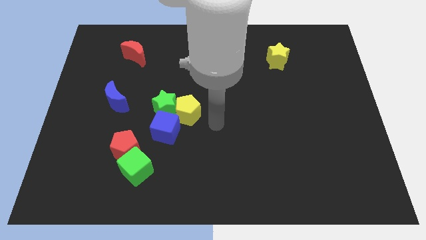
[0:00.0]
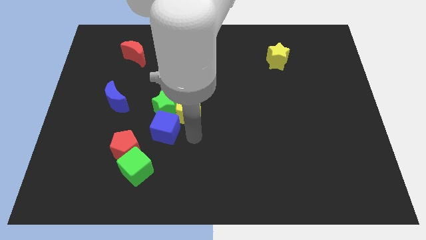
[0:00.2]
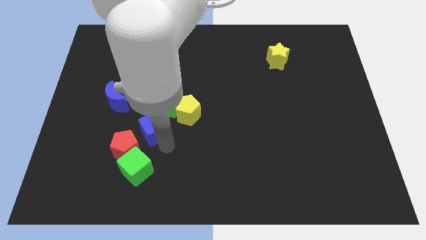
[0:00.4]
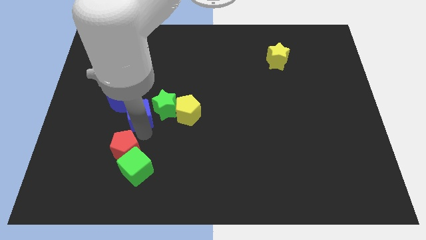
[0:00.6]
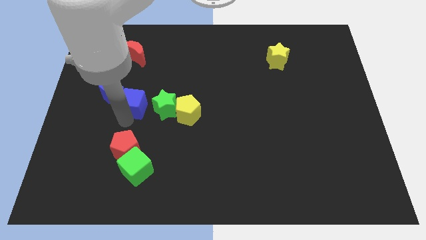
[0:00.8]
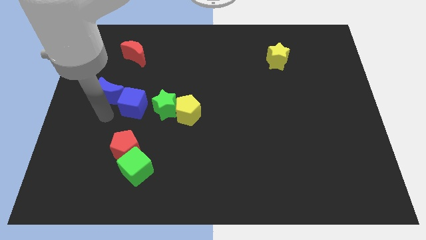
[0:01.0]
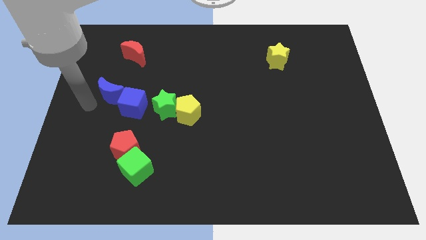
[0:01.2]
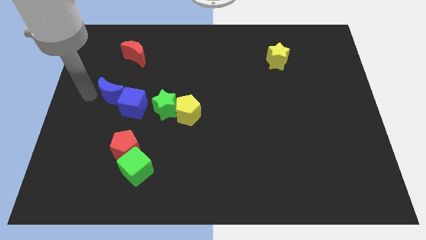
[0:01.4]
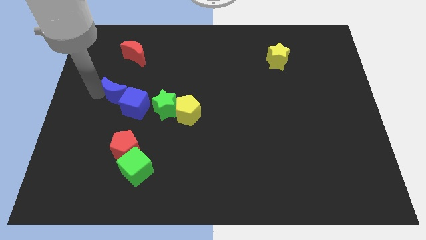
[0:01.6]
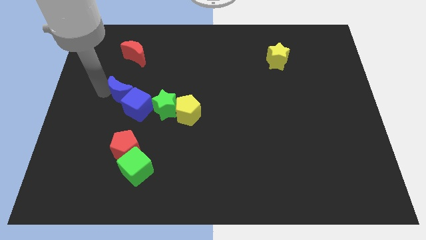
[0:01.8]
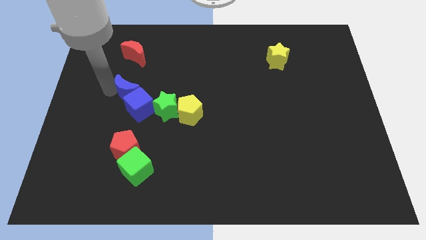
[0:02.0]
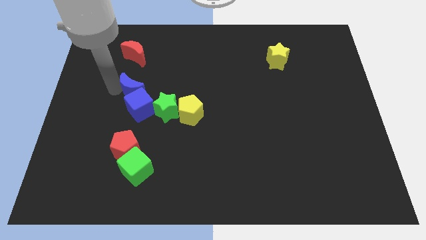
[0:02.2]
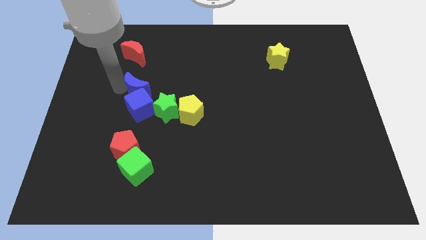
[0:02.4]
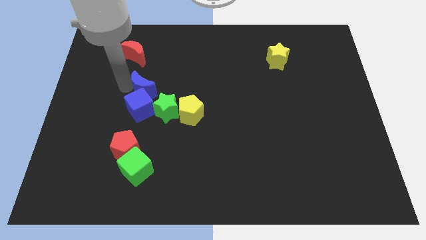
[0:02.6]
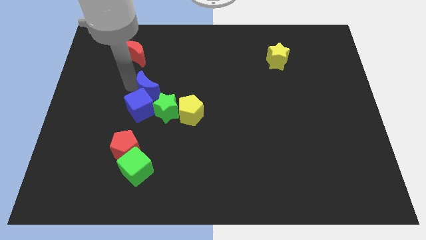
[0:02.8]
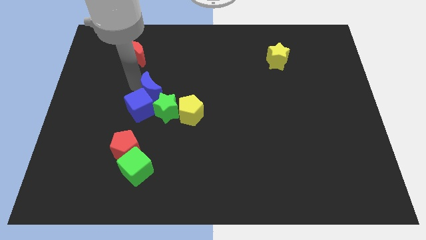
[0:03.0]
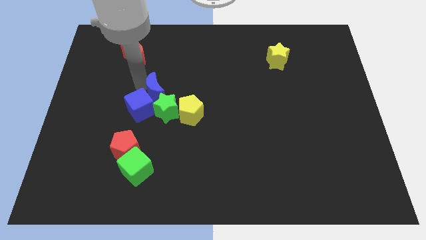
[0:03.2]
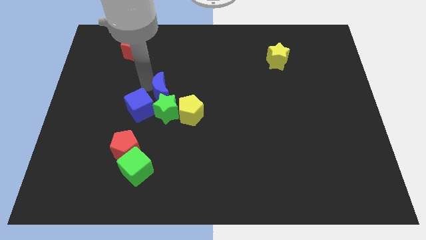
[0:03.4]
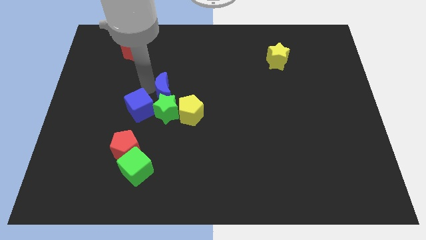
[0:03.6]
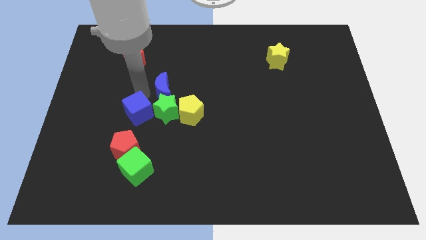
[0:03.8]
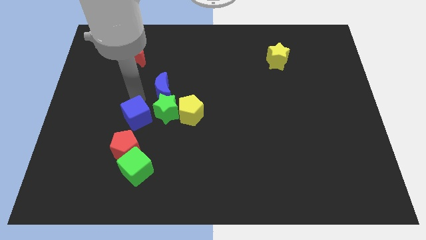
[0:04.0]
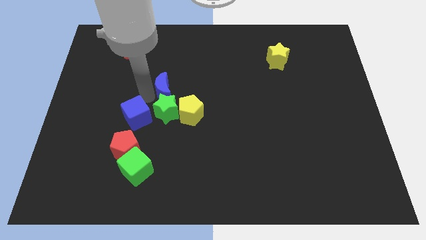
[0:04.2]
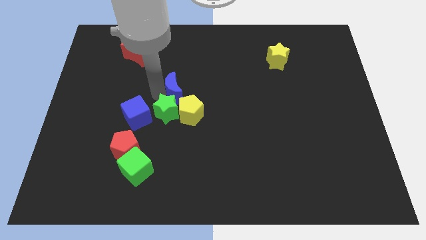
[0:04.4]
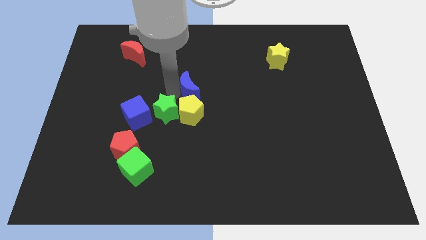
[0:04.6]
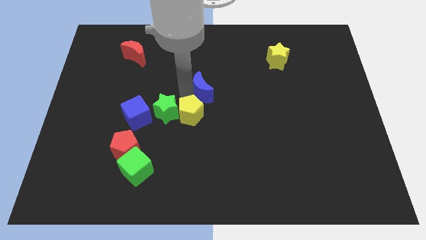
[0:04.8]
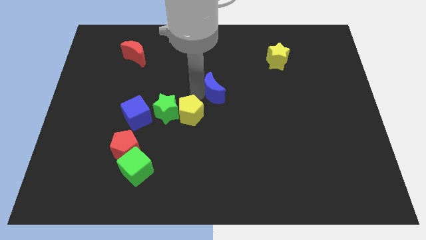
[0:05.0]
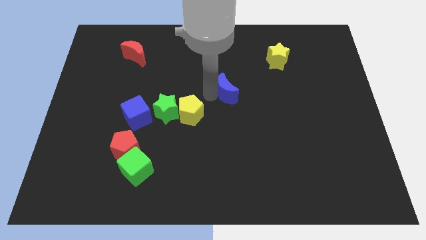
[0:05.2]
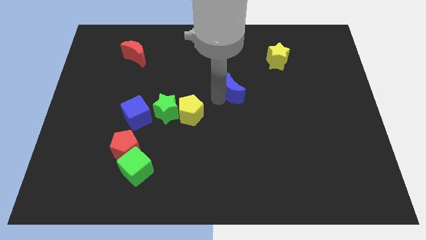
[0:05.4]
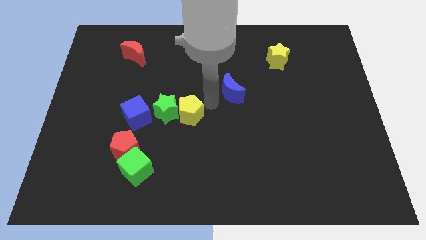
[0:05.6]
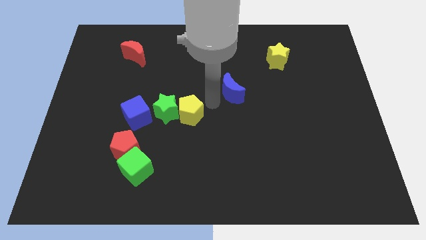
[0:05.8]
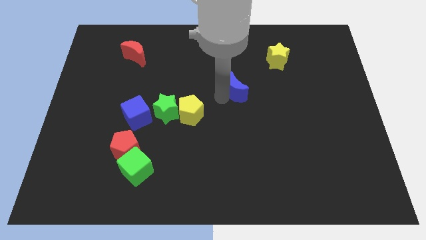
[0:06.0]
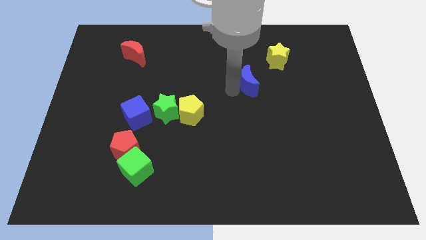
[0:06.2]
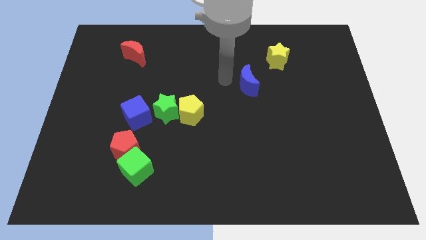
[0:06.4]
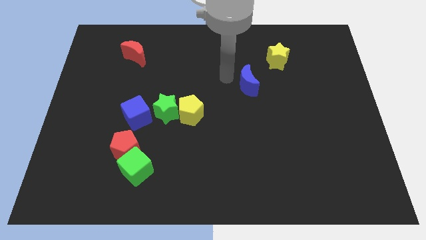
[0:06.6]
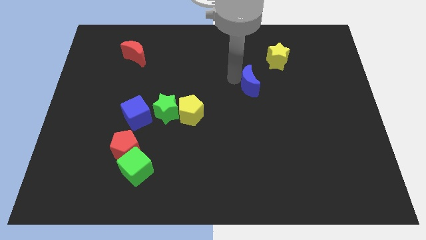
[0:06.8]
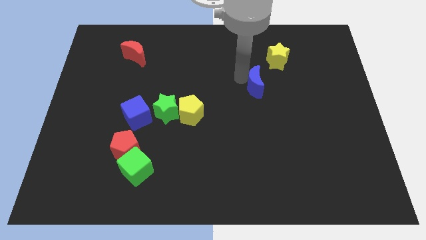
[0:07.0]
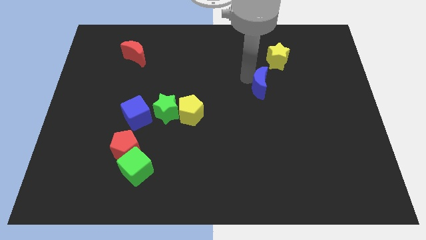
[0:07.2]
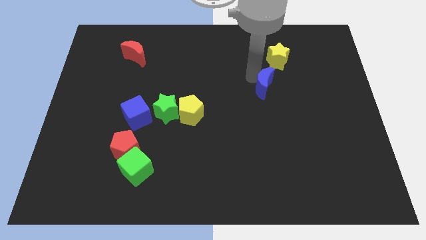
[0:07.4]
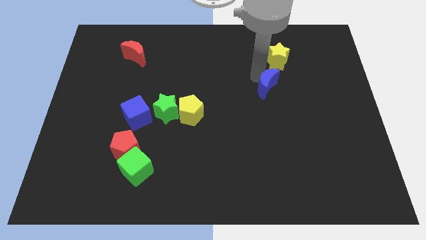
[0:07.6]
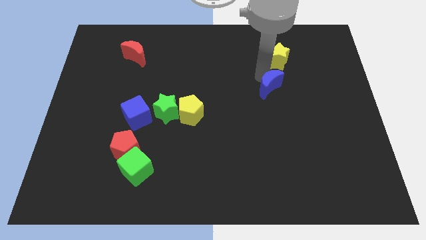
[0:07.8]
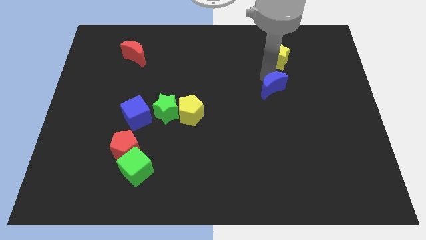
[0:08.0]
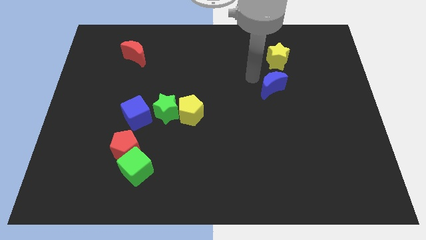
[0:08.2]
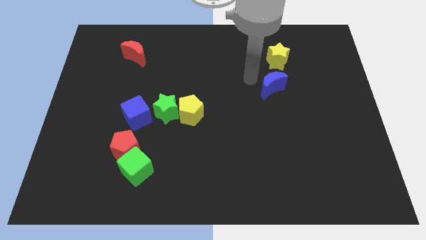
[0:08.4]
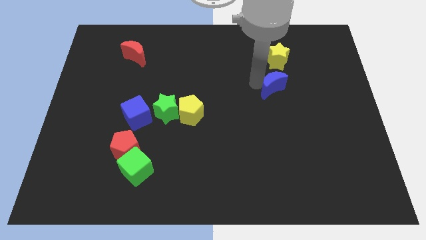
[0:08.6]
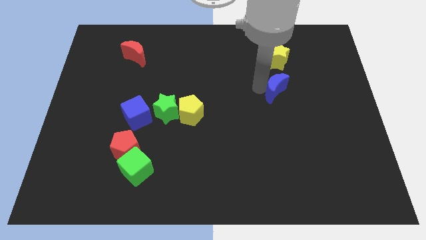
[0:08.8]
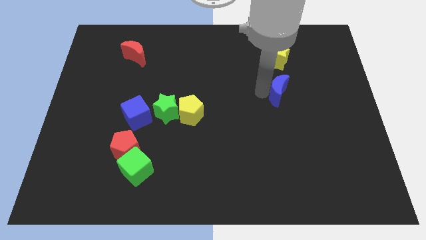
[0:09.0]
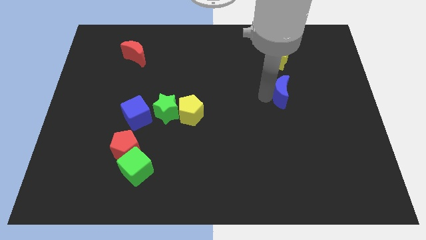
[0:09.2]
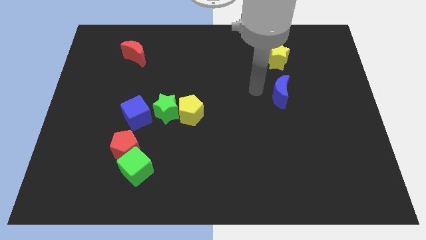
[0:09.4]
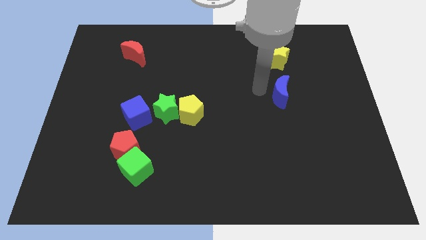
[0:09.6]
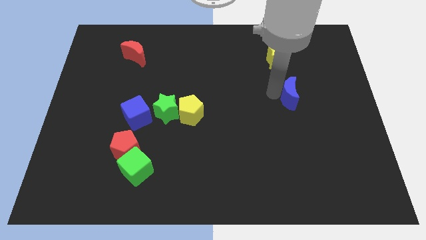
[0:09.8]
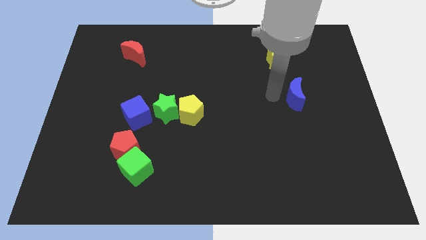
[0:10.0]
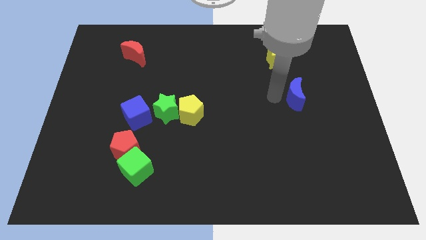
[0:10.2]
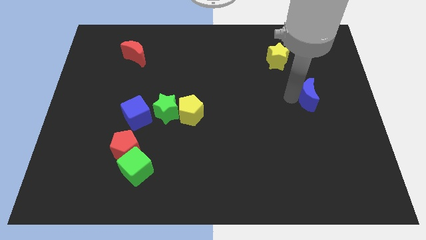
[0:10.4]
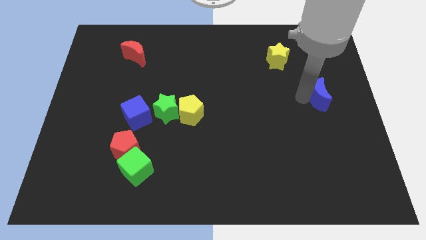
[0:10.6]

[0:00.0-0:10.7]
move the blue moon to the right side

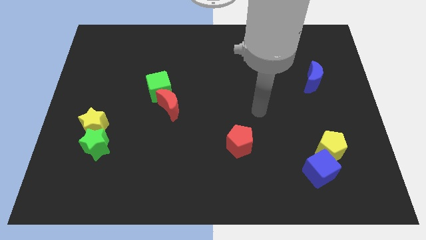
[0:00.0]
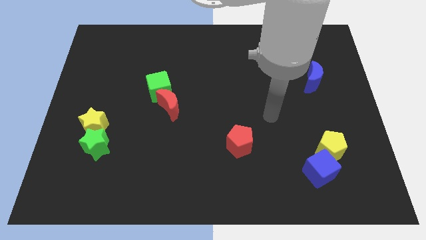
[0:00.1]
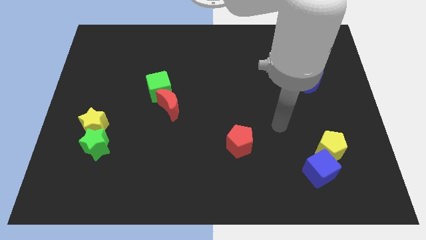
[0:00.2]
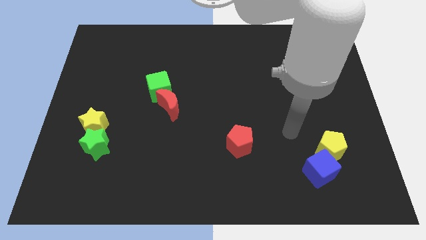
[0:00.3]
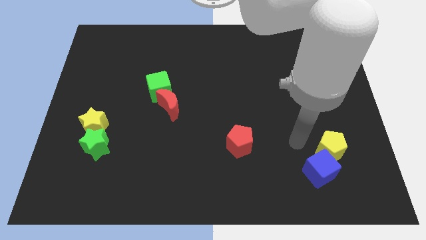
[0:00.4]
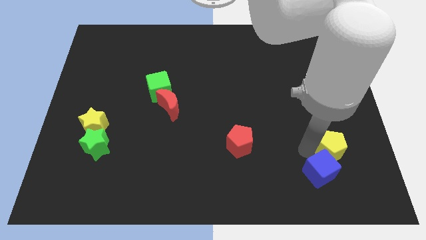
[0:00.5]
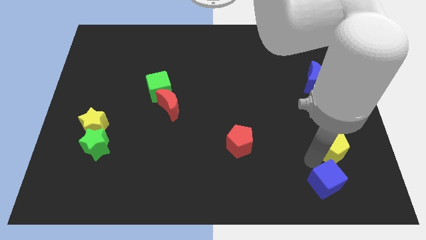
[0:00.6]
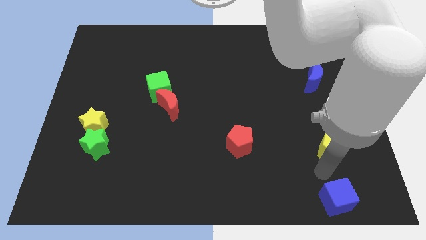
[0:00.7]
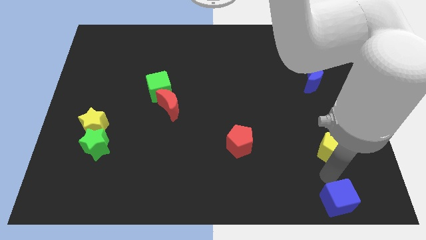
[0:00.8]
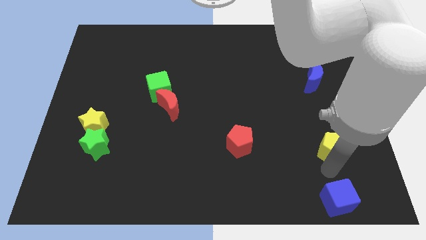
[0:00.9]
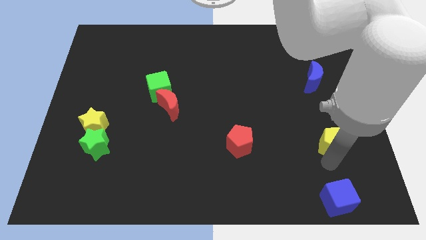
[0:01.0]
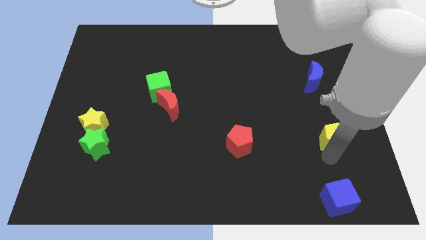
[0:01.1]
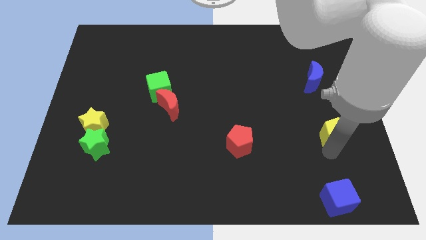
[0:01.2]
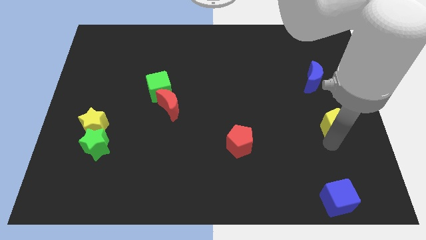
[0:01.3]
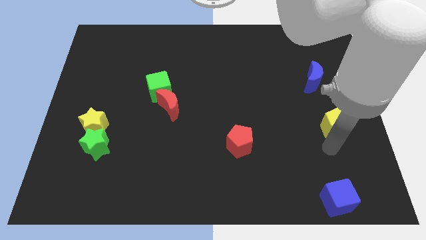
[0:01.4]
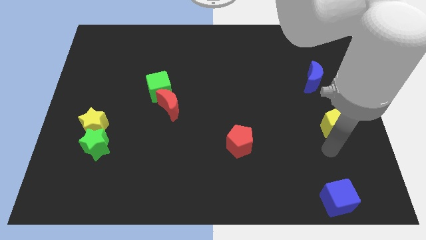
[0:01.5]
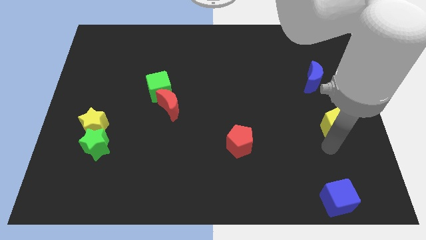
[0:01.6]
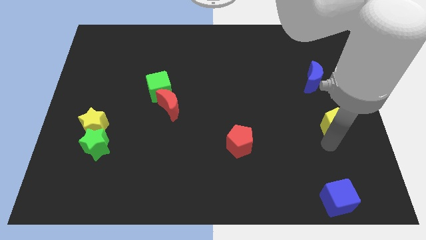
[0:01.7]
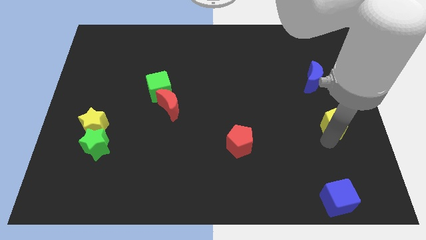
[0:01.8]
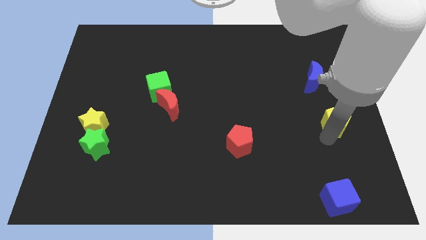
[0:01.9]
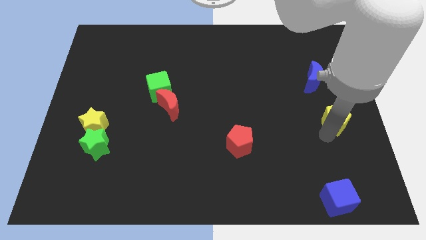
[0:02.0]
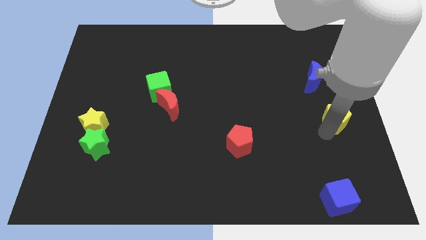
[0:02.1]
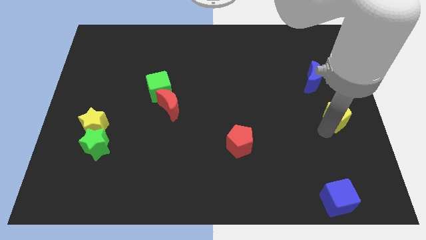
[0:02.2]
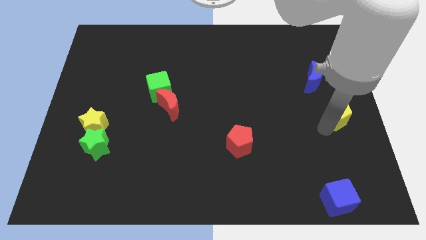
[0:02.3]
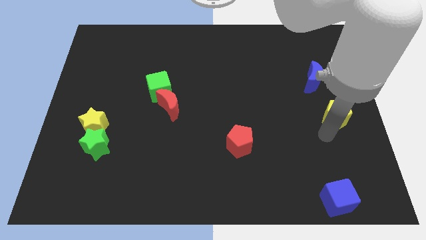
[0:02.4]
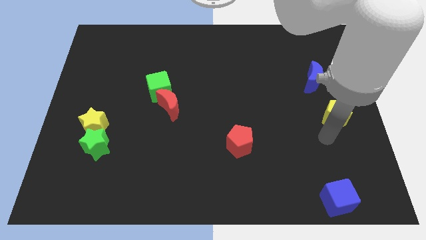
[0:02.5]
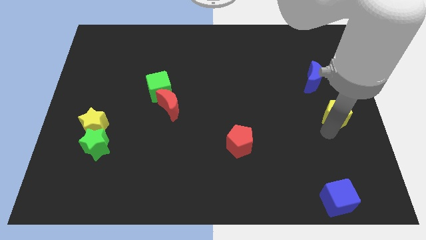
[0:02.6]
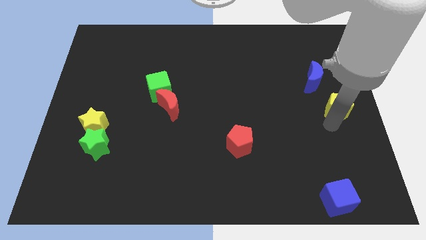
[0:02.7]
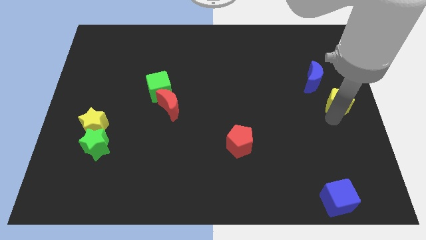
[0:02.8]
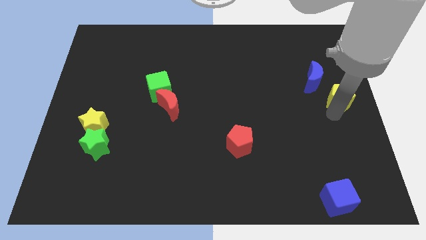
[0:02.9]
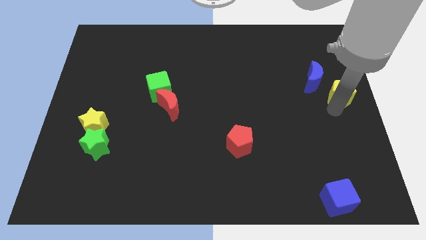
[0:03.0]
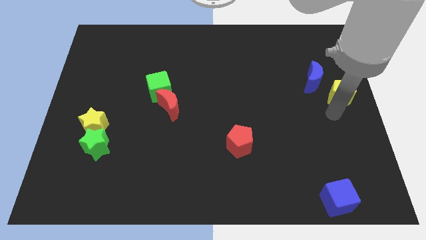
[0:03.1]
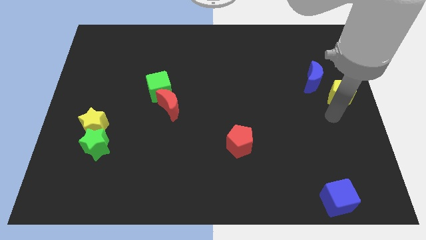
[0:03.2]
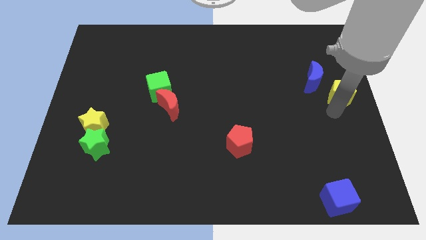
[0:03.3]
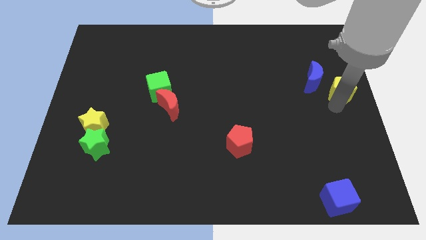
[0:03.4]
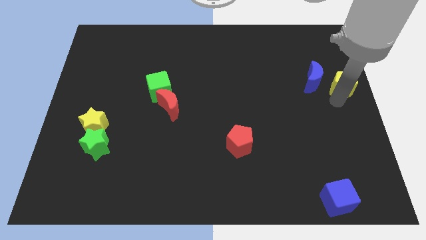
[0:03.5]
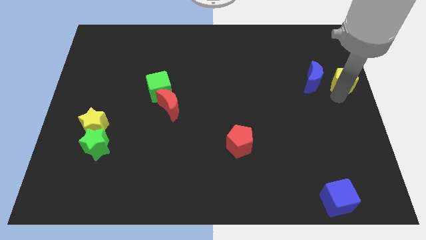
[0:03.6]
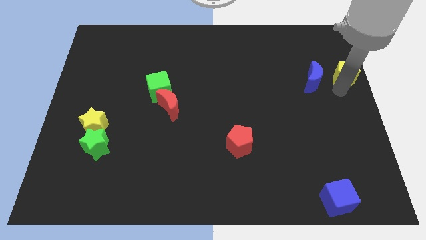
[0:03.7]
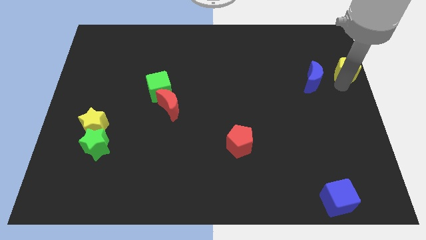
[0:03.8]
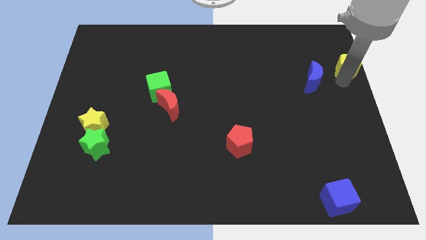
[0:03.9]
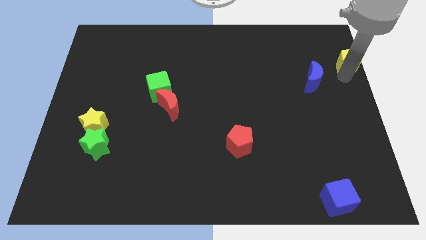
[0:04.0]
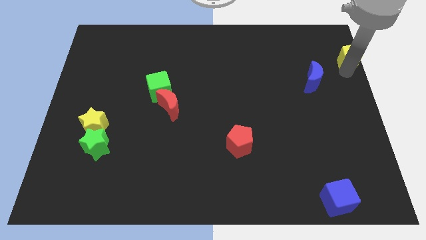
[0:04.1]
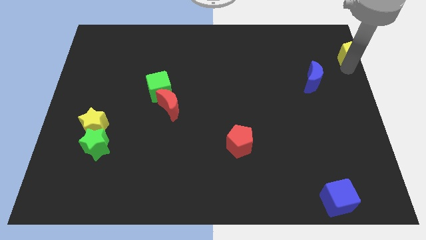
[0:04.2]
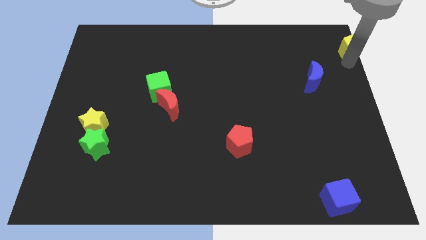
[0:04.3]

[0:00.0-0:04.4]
slide the yellow pentagon to the top right
